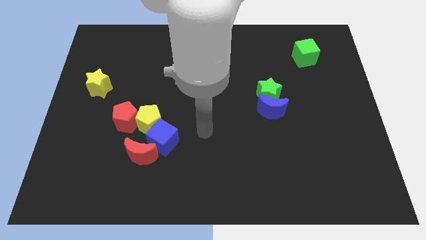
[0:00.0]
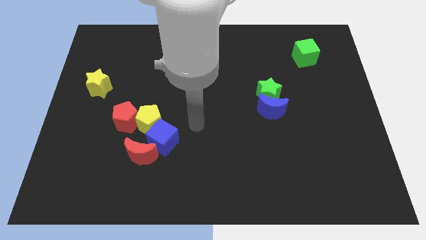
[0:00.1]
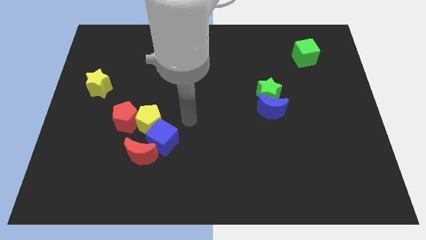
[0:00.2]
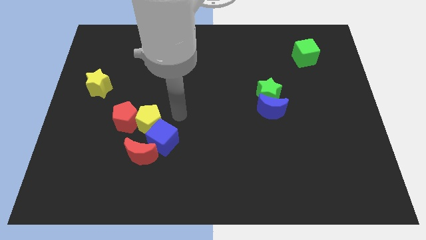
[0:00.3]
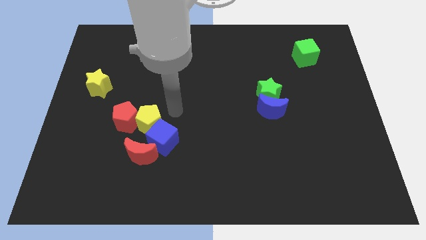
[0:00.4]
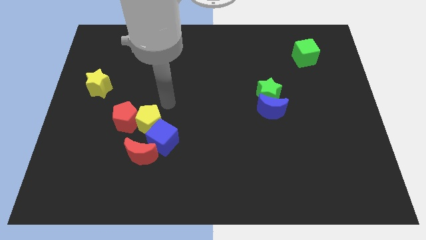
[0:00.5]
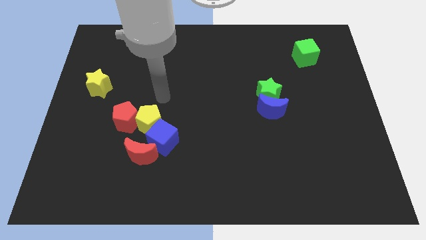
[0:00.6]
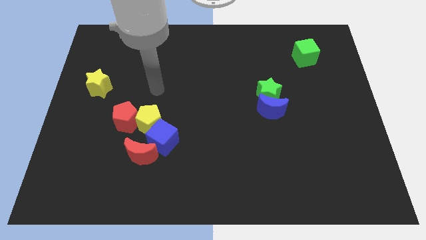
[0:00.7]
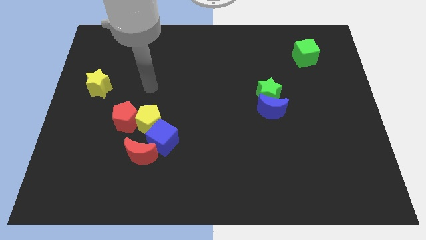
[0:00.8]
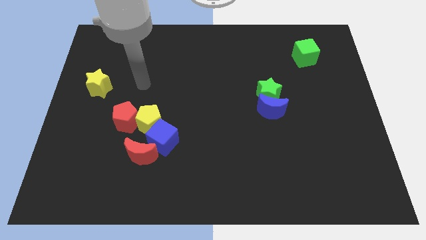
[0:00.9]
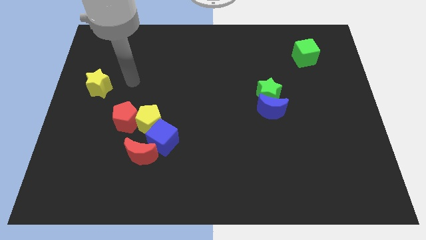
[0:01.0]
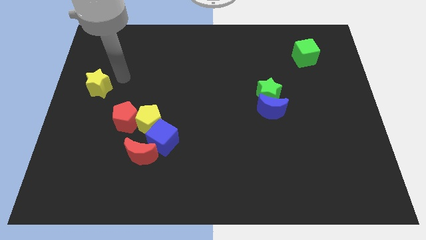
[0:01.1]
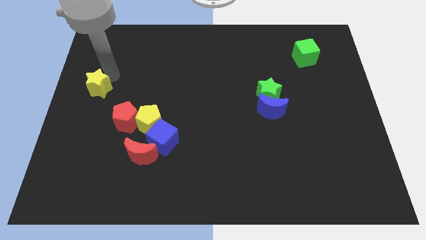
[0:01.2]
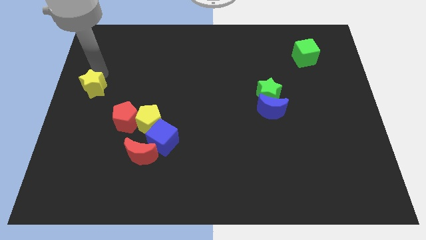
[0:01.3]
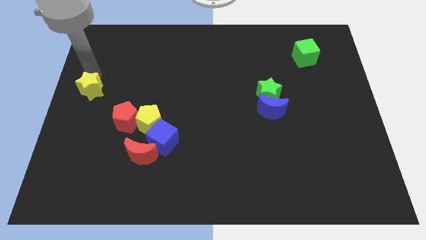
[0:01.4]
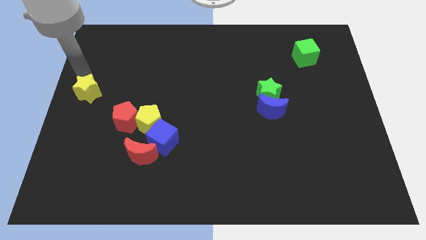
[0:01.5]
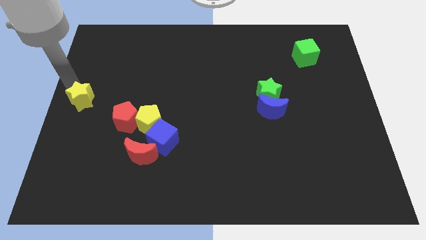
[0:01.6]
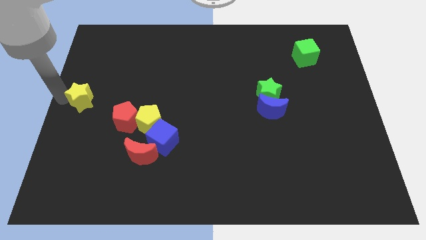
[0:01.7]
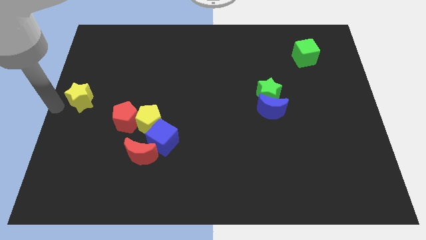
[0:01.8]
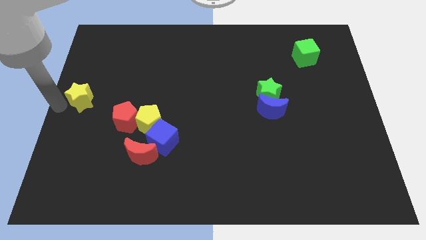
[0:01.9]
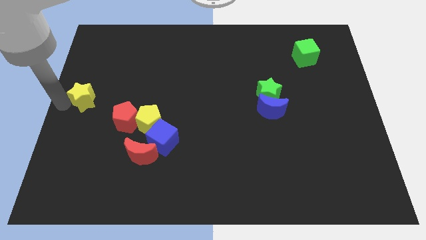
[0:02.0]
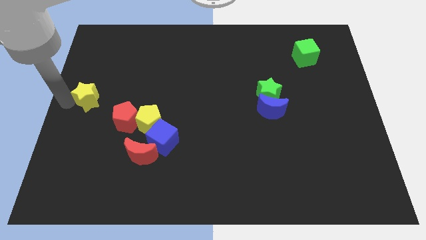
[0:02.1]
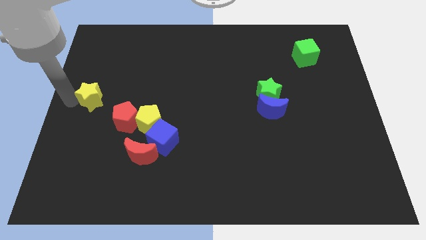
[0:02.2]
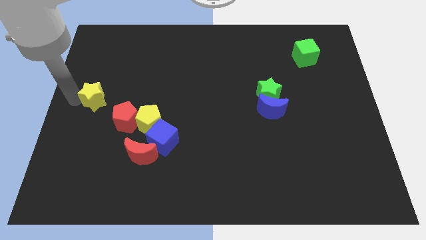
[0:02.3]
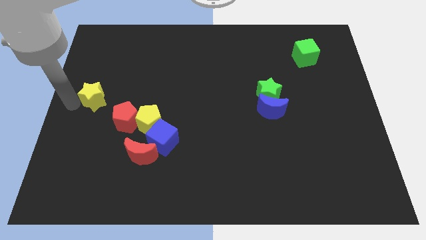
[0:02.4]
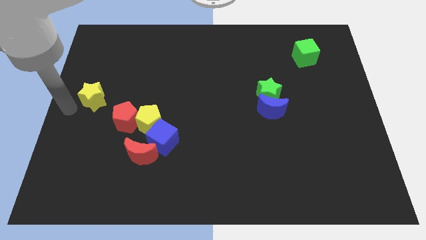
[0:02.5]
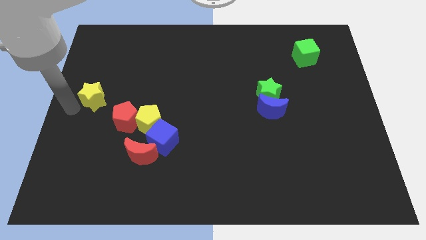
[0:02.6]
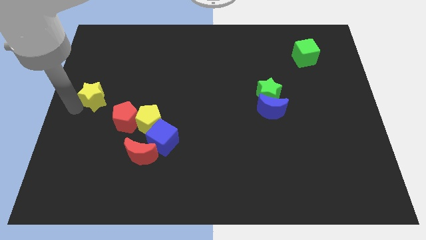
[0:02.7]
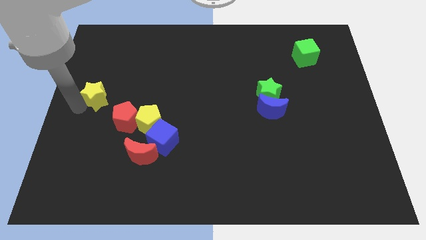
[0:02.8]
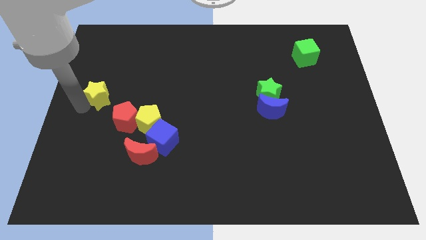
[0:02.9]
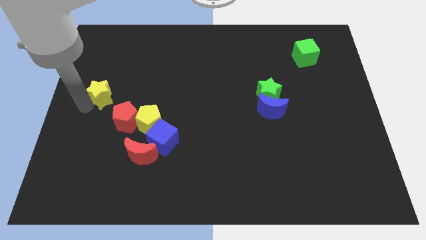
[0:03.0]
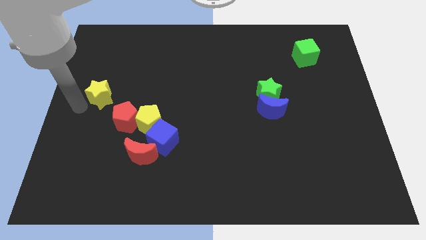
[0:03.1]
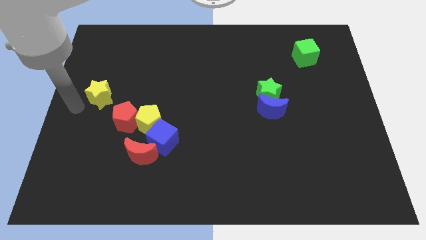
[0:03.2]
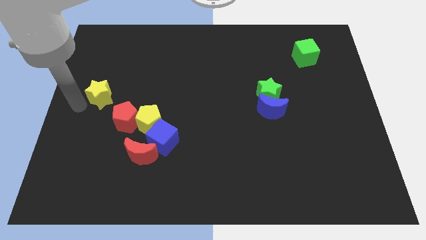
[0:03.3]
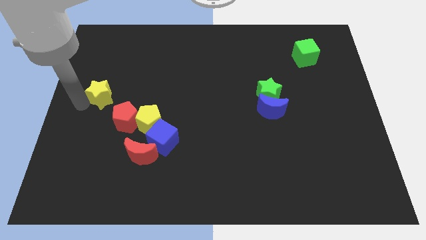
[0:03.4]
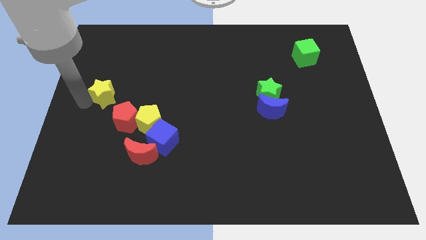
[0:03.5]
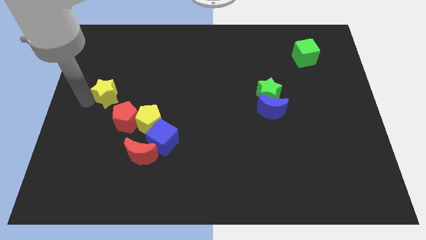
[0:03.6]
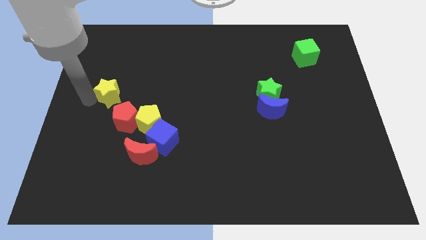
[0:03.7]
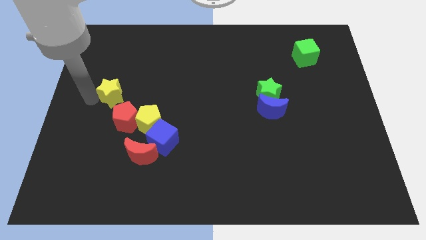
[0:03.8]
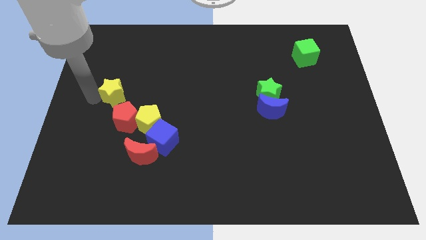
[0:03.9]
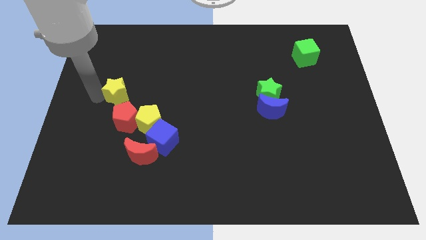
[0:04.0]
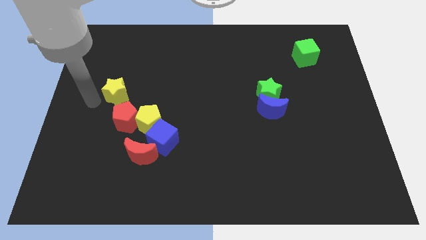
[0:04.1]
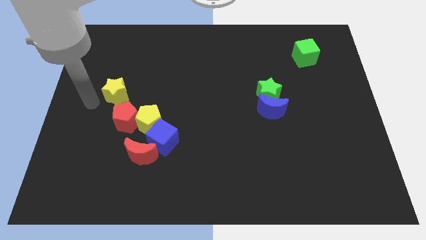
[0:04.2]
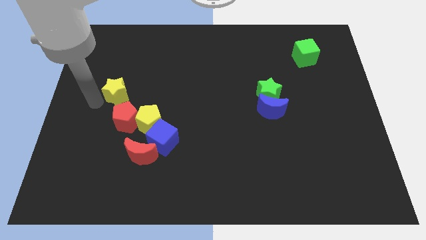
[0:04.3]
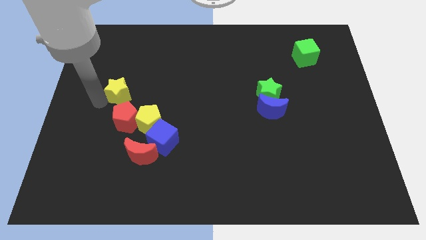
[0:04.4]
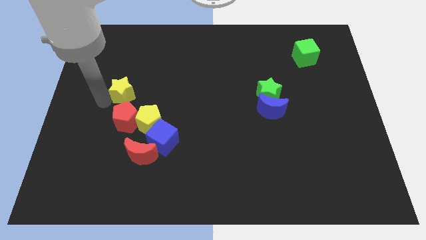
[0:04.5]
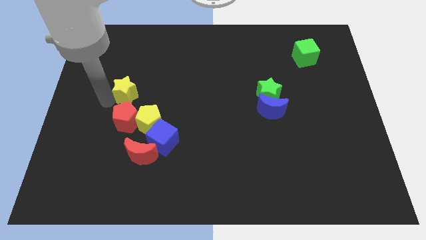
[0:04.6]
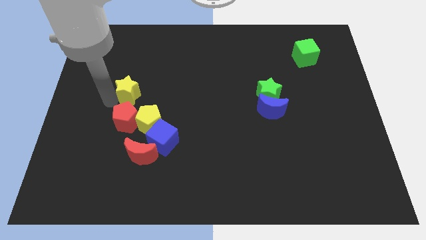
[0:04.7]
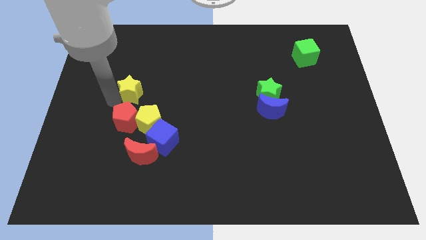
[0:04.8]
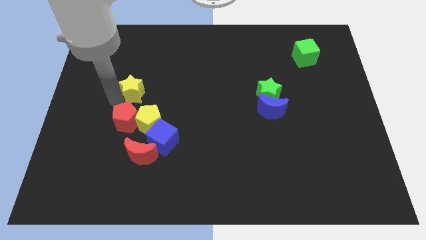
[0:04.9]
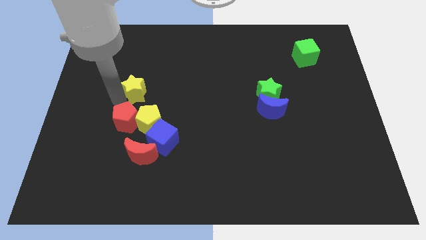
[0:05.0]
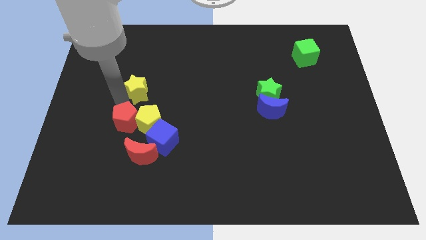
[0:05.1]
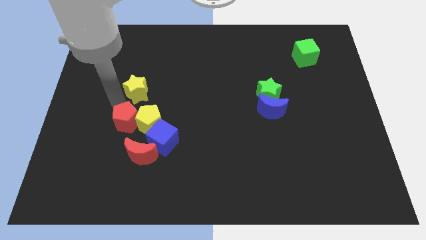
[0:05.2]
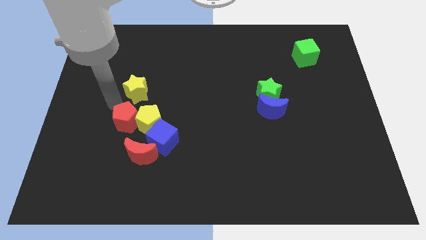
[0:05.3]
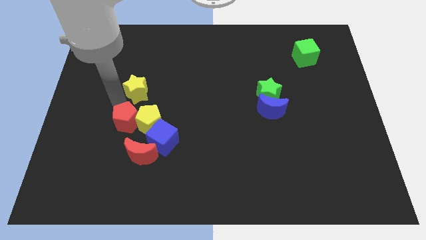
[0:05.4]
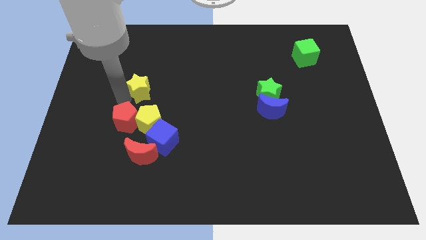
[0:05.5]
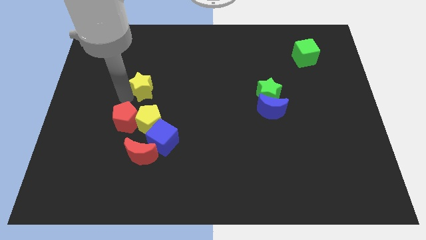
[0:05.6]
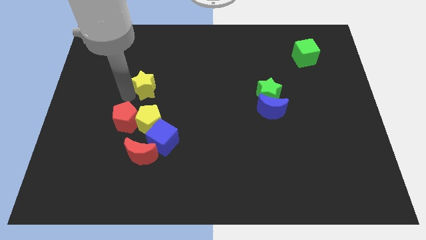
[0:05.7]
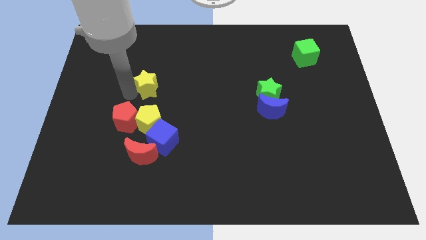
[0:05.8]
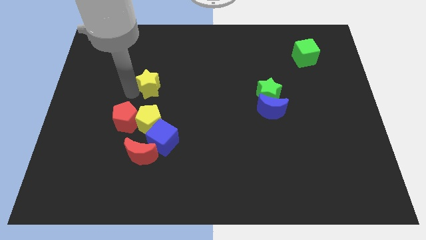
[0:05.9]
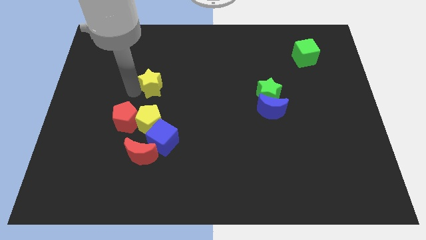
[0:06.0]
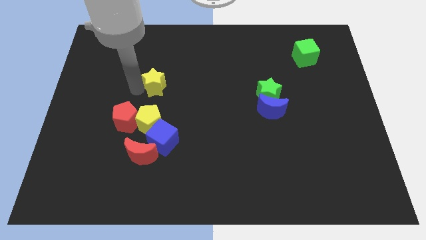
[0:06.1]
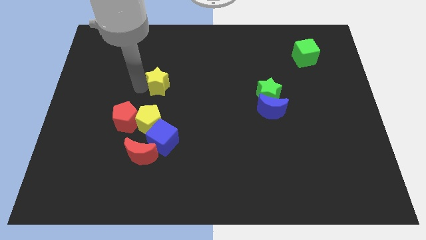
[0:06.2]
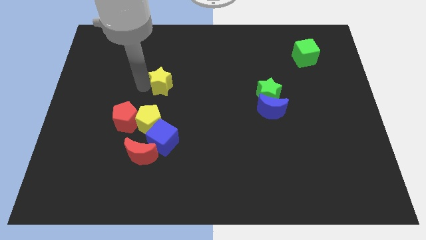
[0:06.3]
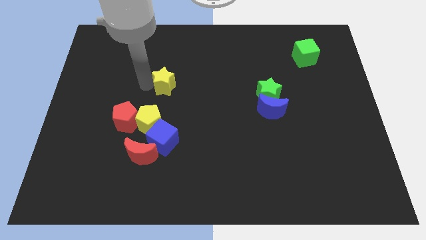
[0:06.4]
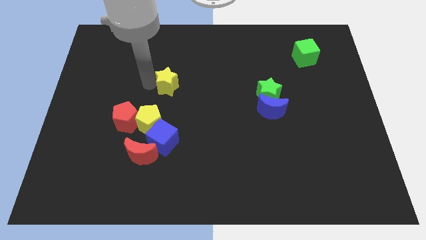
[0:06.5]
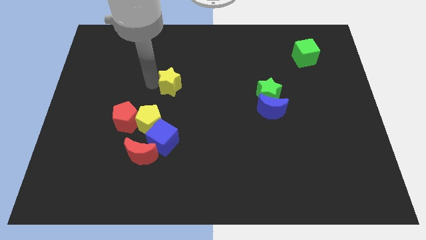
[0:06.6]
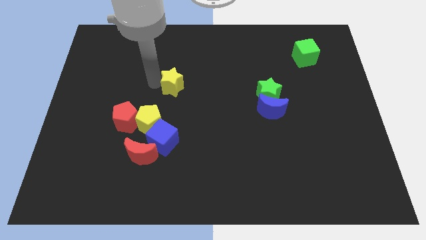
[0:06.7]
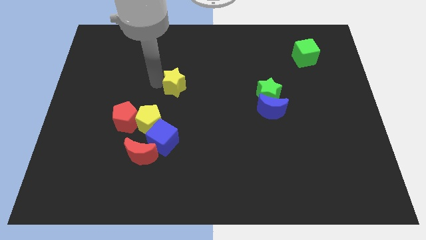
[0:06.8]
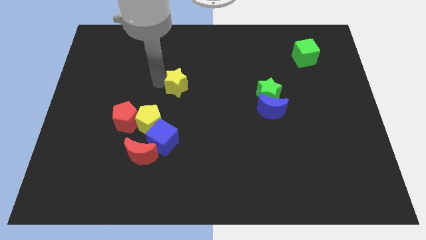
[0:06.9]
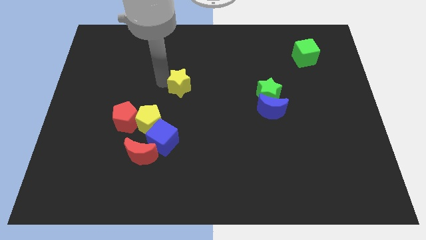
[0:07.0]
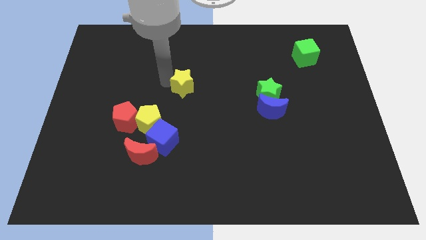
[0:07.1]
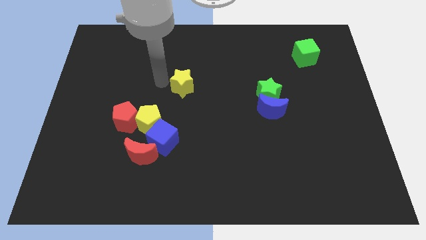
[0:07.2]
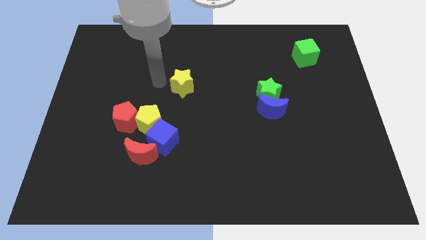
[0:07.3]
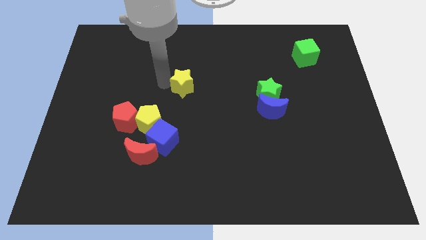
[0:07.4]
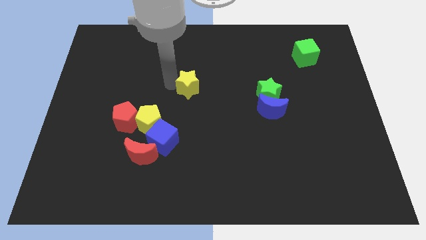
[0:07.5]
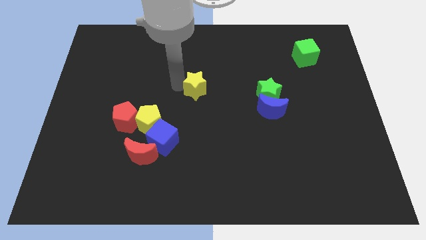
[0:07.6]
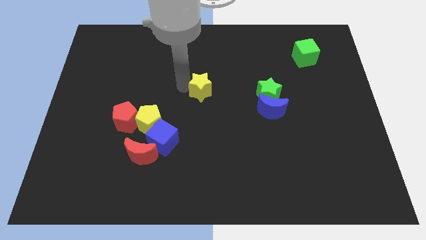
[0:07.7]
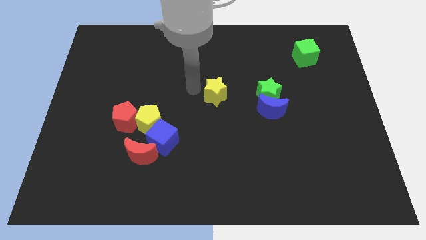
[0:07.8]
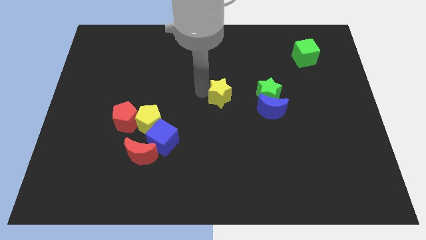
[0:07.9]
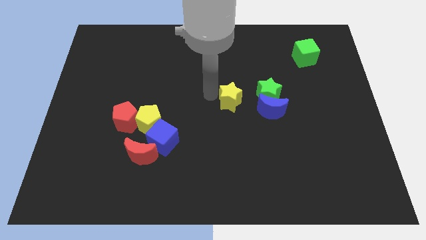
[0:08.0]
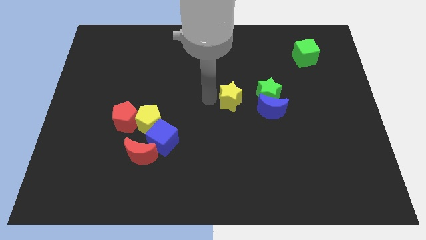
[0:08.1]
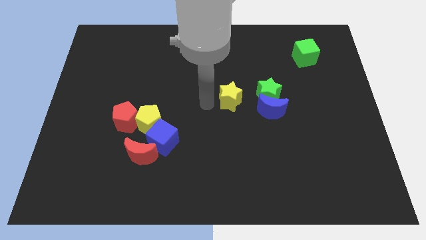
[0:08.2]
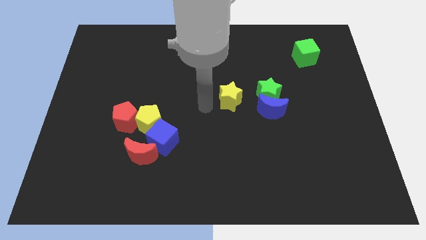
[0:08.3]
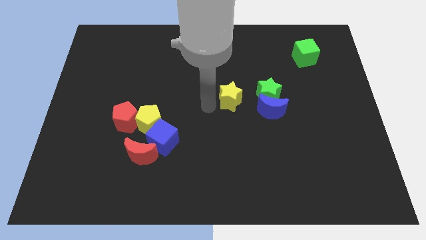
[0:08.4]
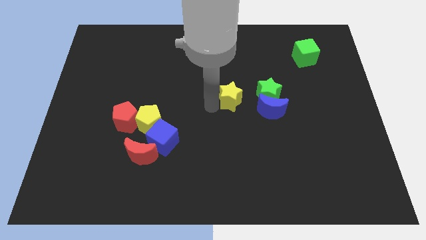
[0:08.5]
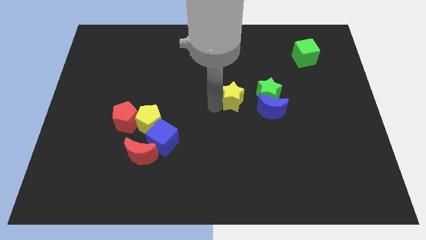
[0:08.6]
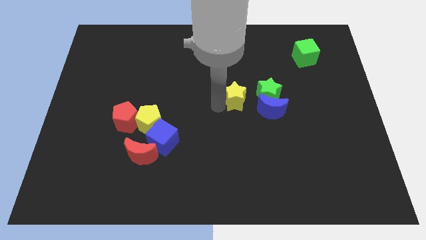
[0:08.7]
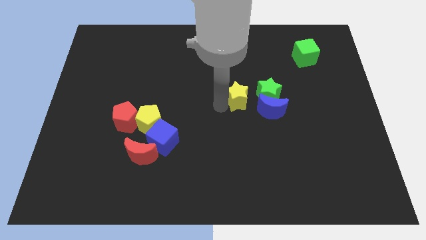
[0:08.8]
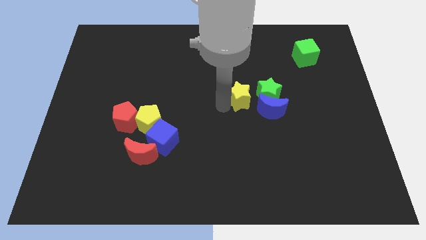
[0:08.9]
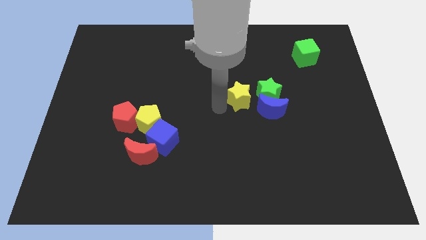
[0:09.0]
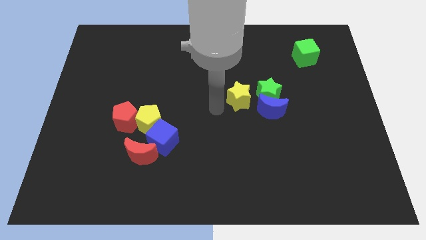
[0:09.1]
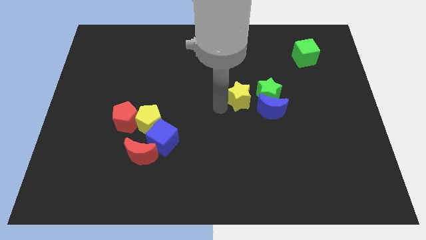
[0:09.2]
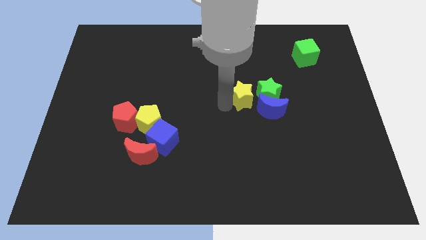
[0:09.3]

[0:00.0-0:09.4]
put the yellow star next to the green star
